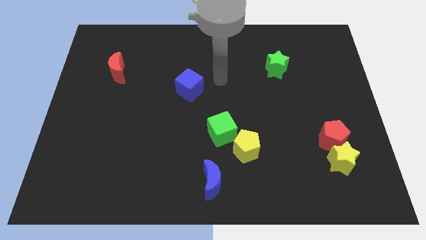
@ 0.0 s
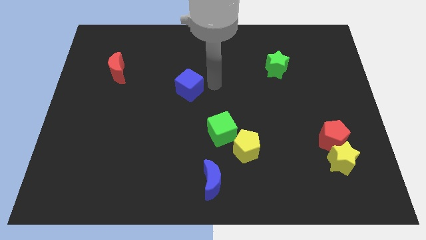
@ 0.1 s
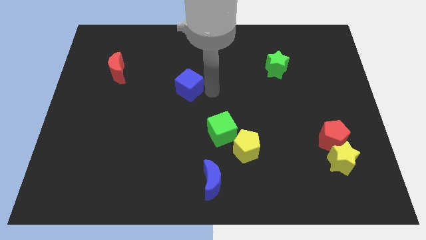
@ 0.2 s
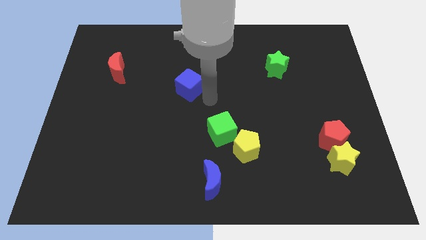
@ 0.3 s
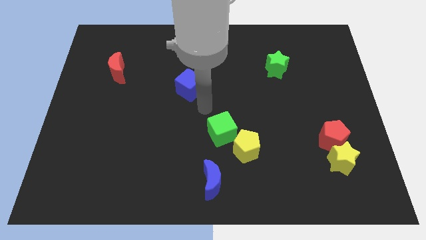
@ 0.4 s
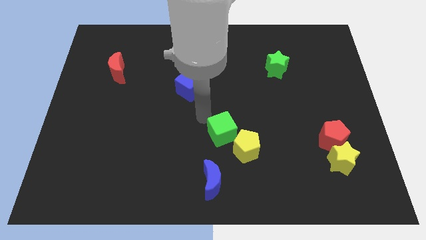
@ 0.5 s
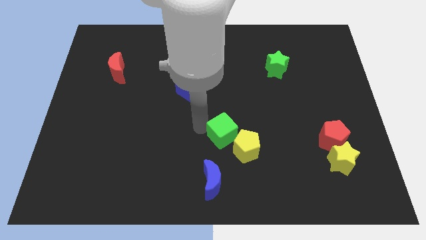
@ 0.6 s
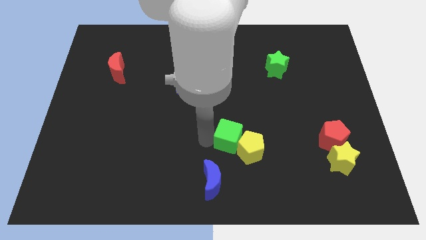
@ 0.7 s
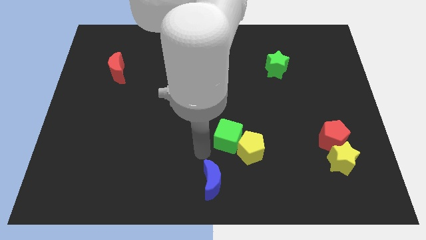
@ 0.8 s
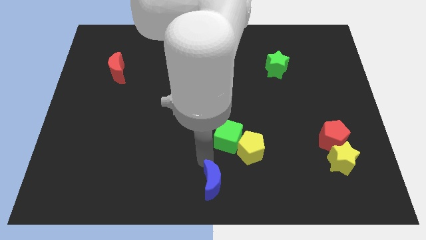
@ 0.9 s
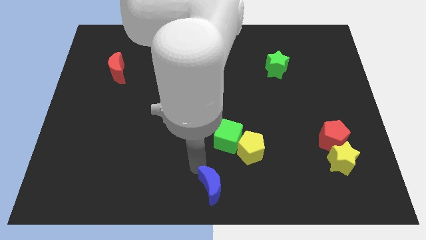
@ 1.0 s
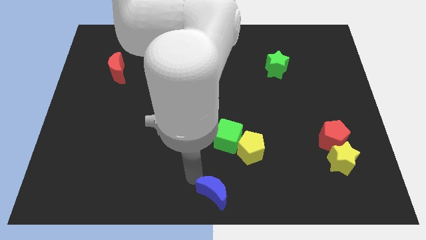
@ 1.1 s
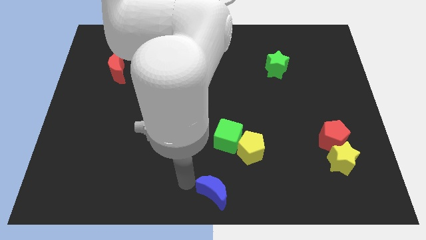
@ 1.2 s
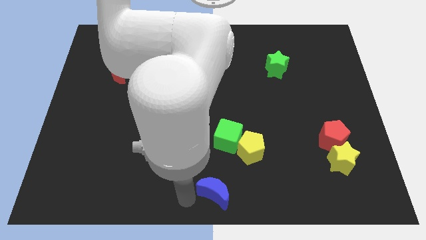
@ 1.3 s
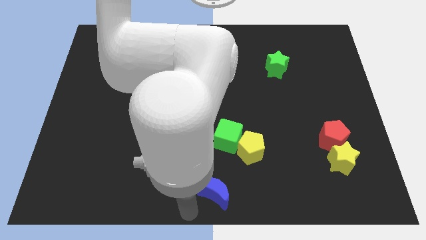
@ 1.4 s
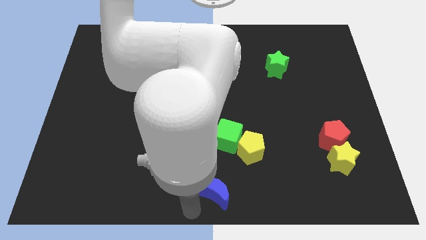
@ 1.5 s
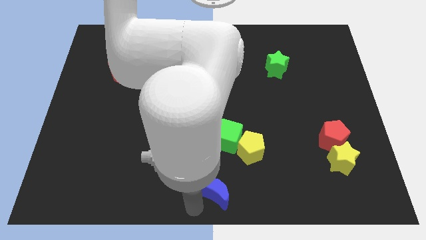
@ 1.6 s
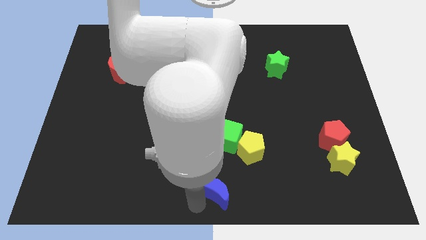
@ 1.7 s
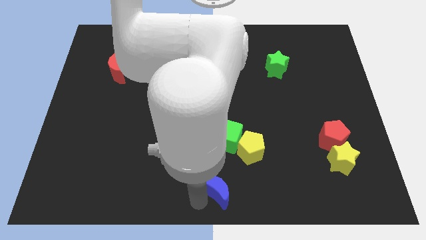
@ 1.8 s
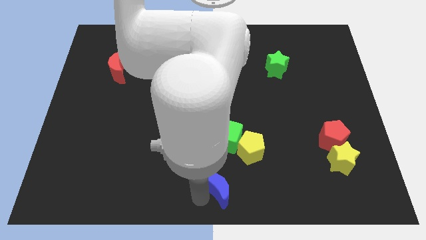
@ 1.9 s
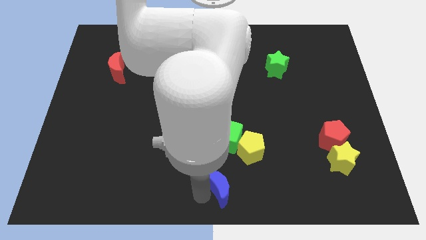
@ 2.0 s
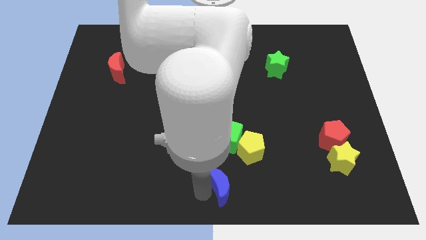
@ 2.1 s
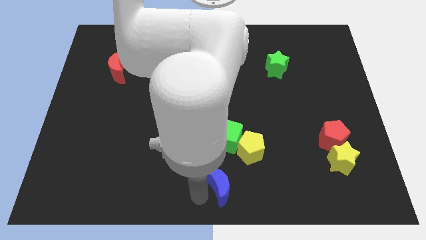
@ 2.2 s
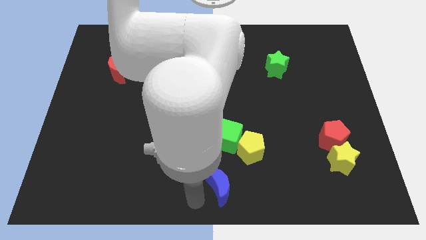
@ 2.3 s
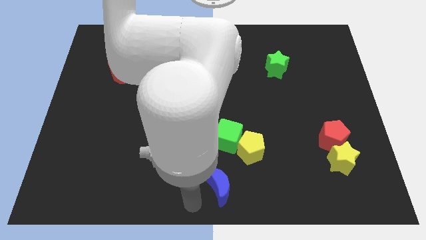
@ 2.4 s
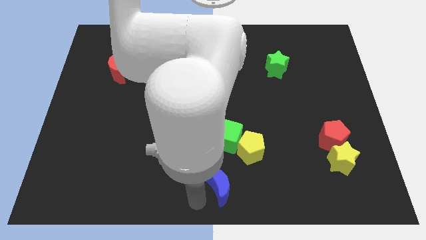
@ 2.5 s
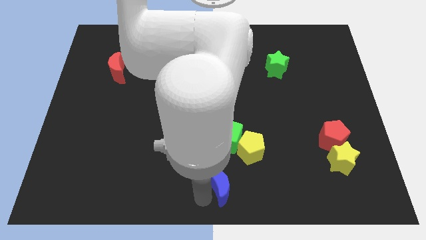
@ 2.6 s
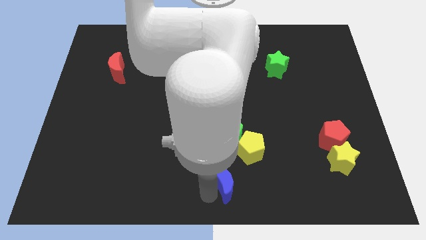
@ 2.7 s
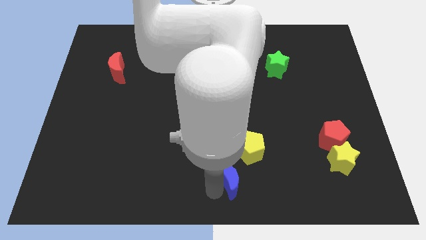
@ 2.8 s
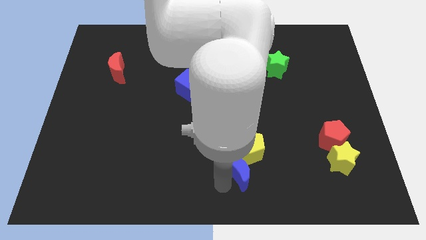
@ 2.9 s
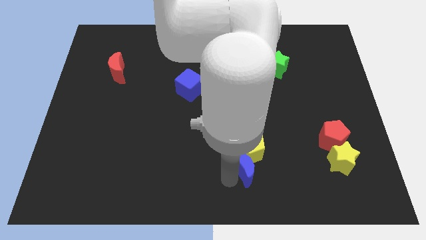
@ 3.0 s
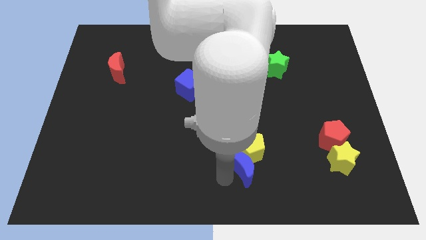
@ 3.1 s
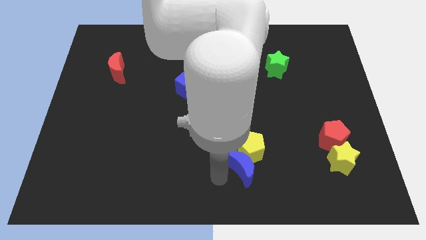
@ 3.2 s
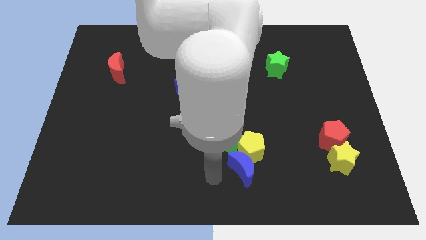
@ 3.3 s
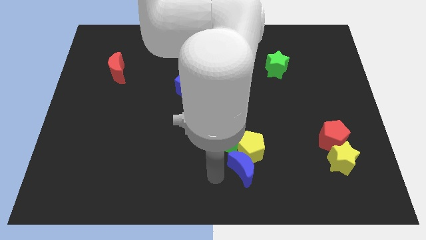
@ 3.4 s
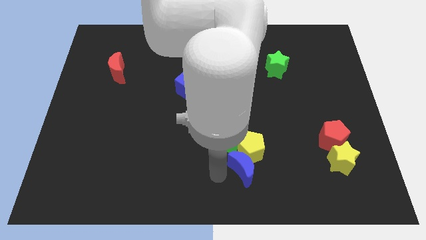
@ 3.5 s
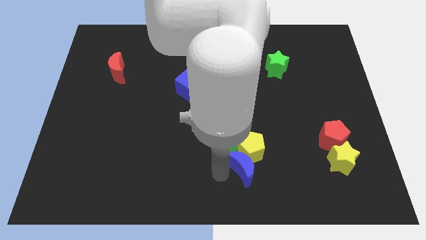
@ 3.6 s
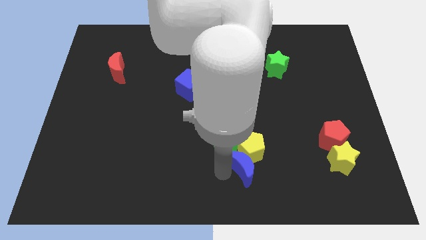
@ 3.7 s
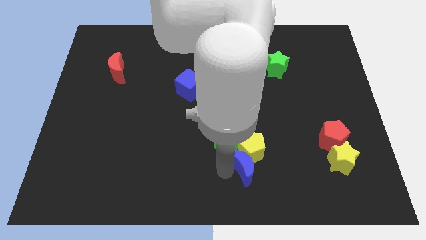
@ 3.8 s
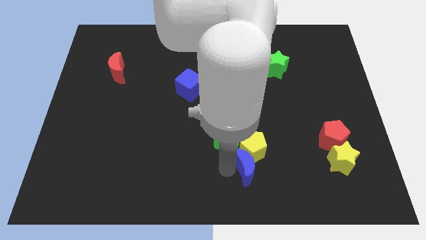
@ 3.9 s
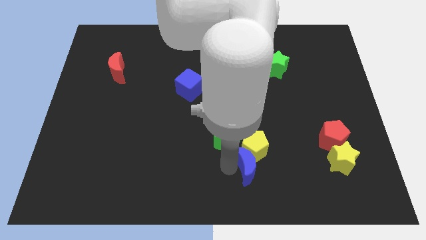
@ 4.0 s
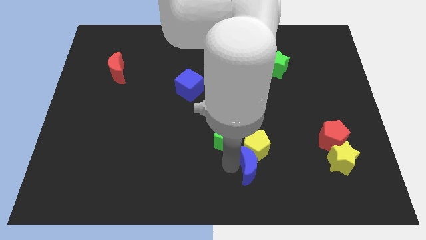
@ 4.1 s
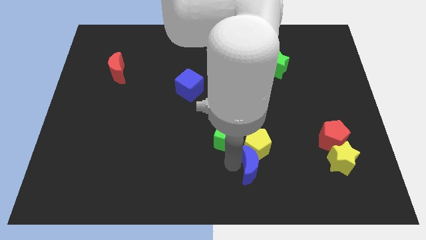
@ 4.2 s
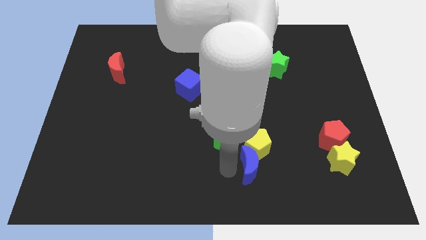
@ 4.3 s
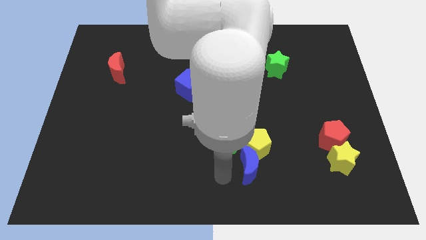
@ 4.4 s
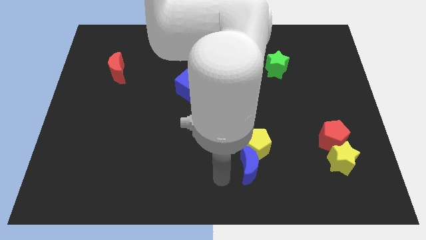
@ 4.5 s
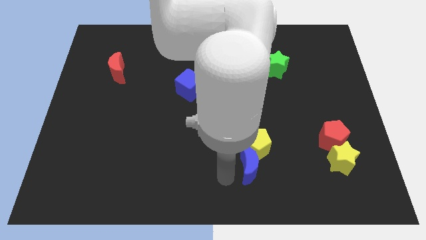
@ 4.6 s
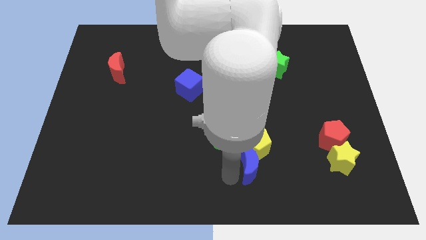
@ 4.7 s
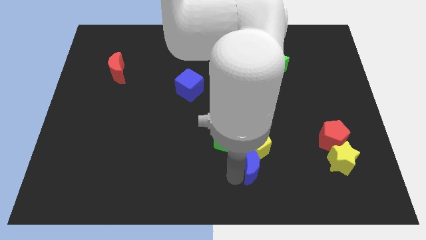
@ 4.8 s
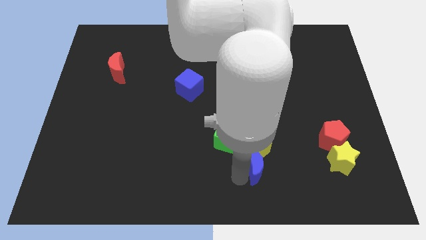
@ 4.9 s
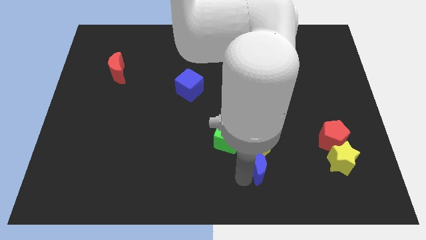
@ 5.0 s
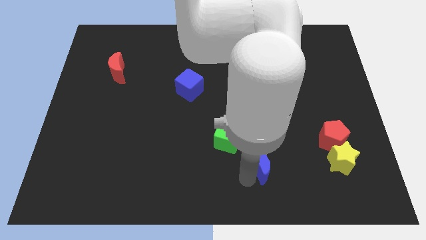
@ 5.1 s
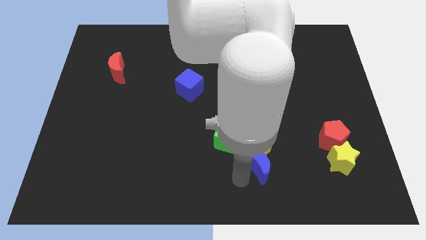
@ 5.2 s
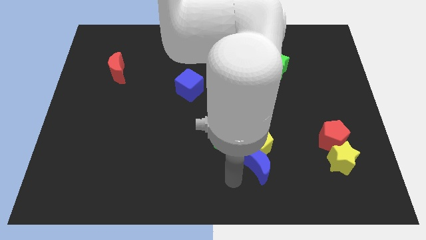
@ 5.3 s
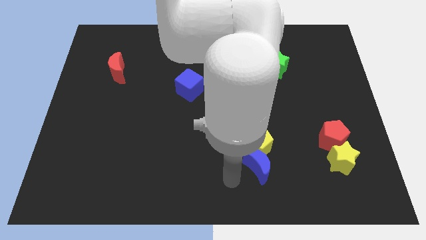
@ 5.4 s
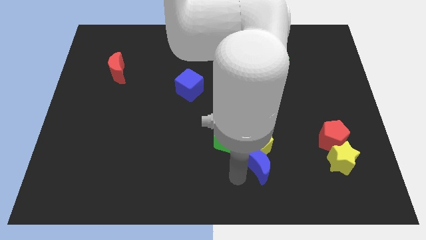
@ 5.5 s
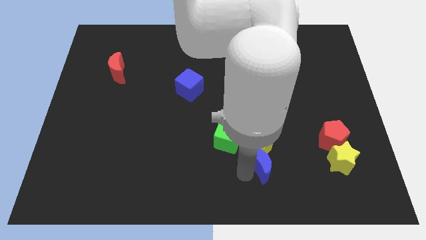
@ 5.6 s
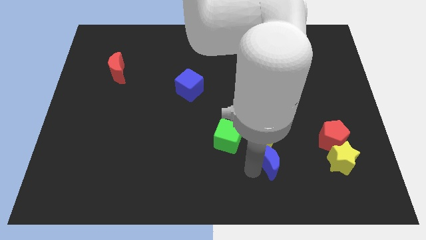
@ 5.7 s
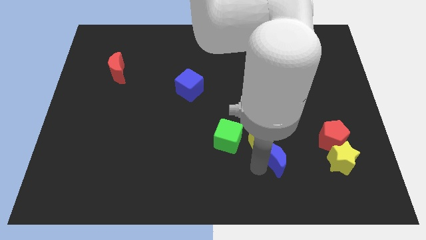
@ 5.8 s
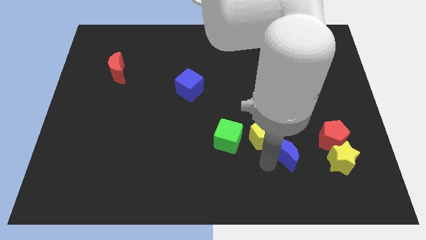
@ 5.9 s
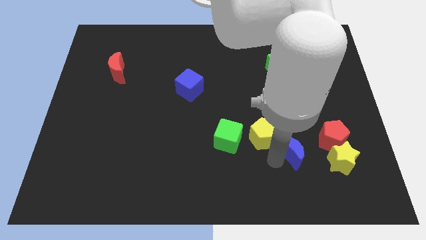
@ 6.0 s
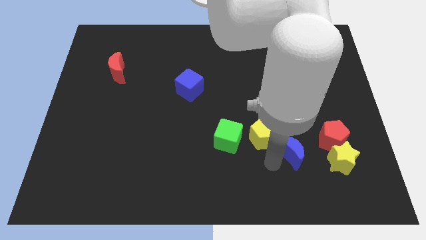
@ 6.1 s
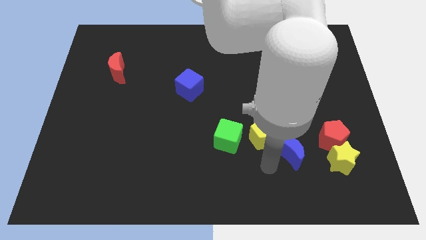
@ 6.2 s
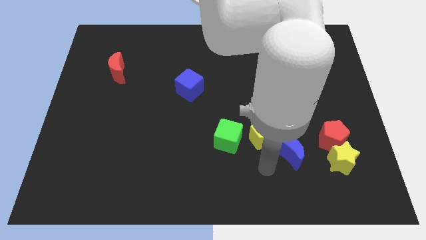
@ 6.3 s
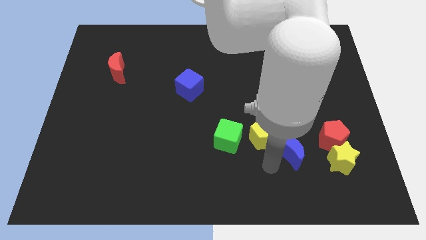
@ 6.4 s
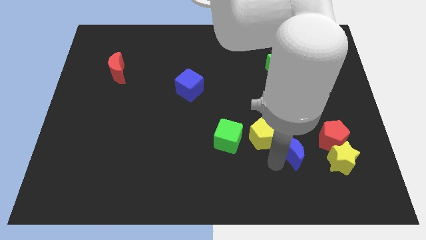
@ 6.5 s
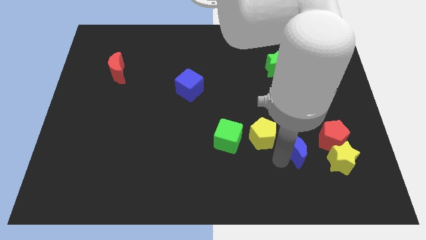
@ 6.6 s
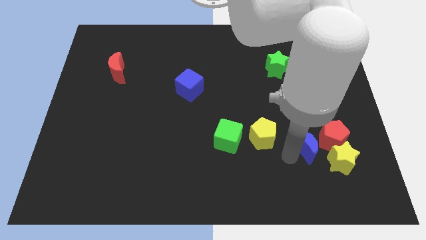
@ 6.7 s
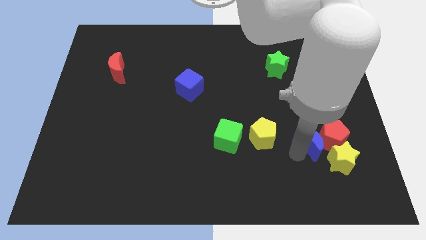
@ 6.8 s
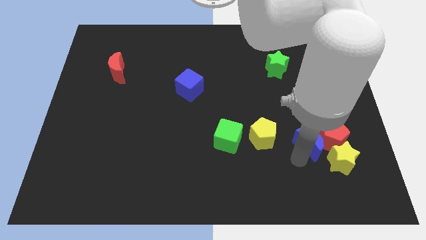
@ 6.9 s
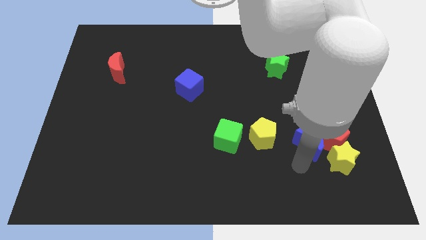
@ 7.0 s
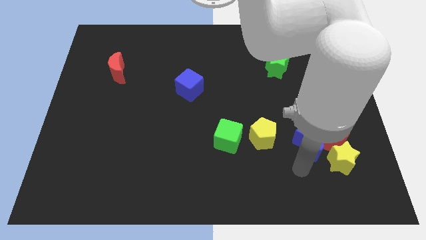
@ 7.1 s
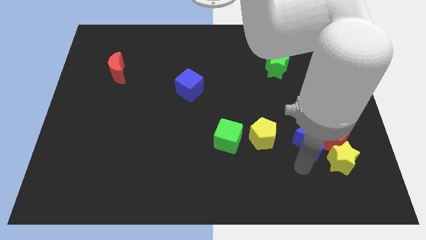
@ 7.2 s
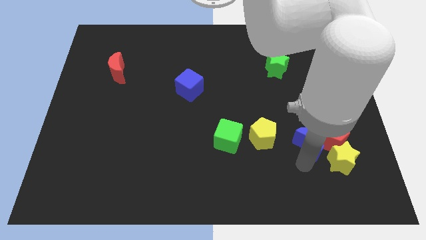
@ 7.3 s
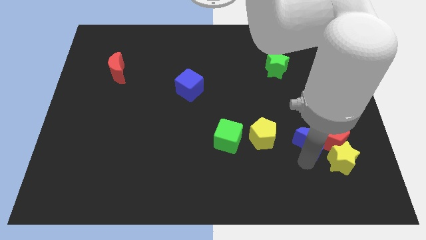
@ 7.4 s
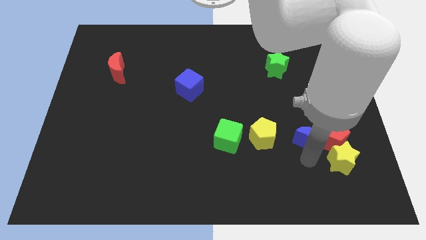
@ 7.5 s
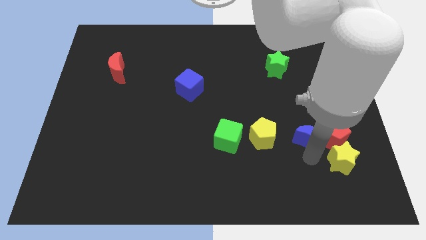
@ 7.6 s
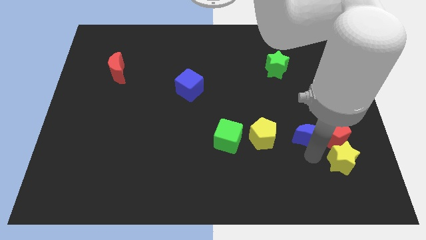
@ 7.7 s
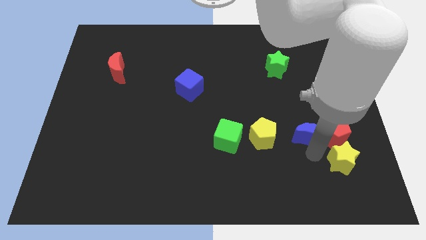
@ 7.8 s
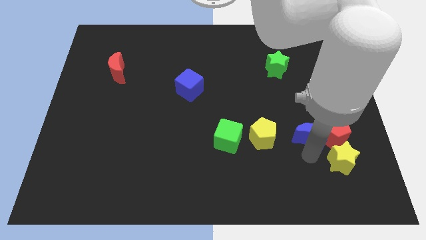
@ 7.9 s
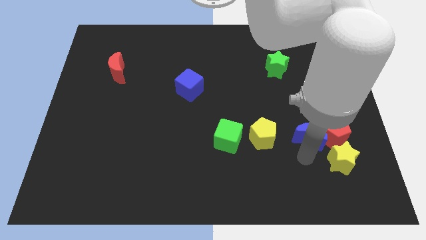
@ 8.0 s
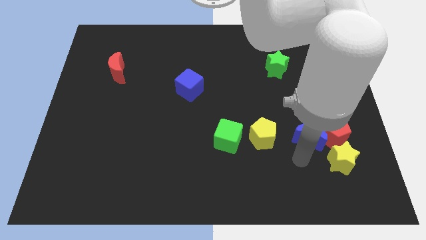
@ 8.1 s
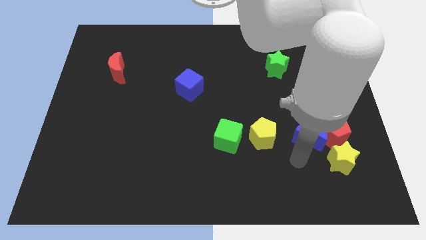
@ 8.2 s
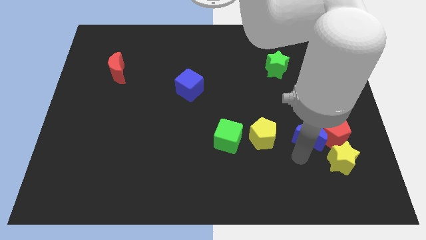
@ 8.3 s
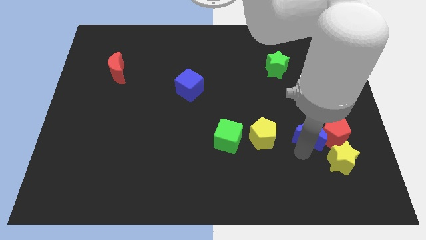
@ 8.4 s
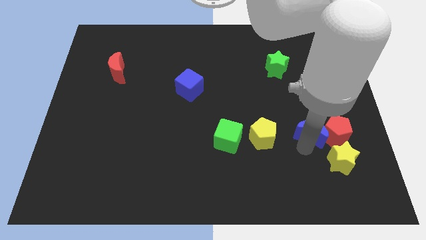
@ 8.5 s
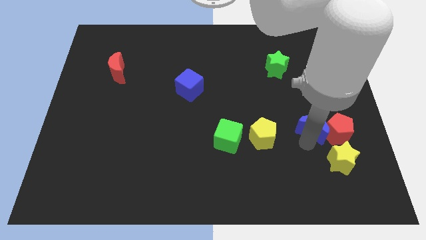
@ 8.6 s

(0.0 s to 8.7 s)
move the blue moon to the top of the yellow star
